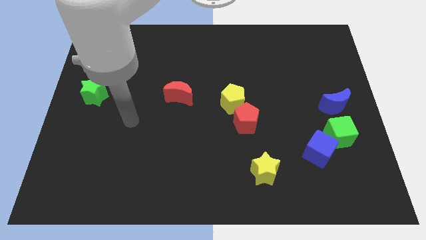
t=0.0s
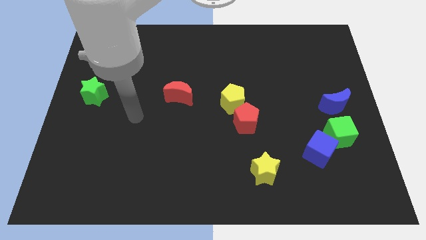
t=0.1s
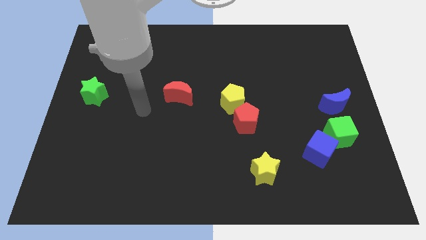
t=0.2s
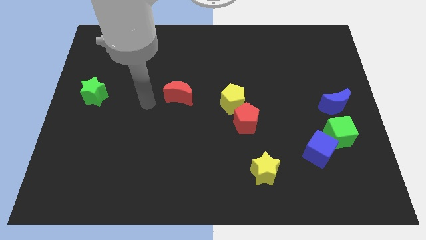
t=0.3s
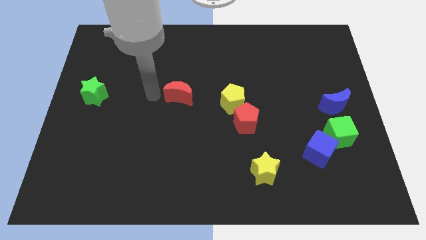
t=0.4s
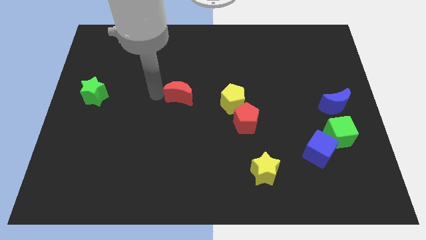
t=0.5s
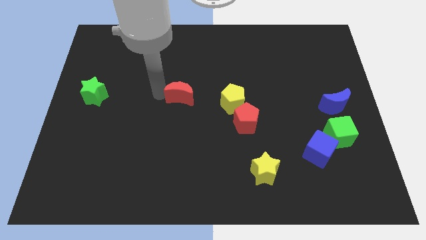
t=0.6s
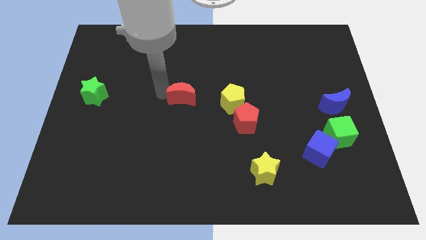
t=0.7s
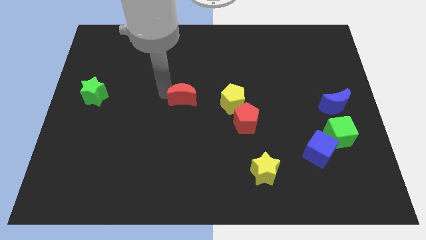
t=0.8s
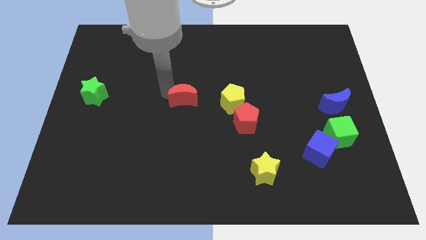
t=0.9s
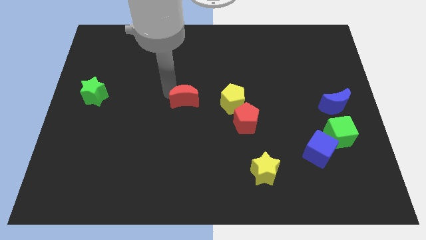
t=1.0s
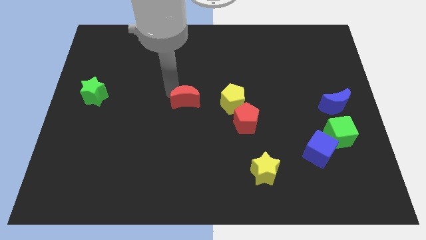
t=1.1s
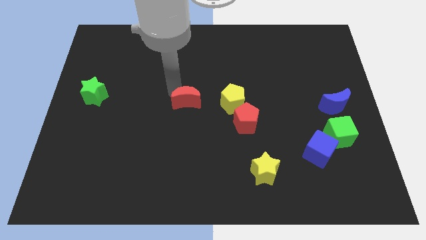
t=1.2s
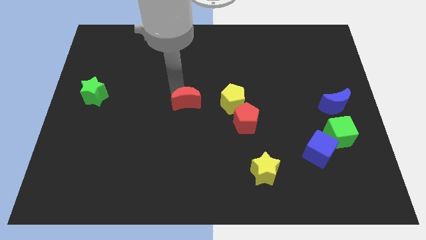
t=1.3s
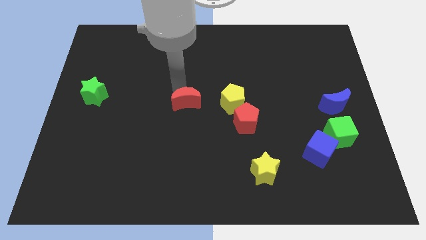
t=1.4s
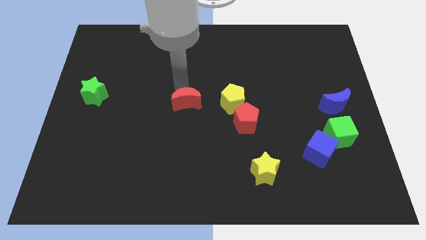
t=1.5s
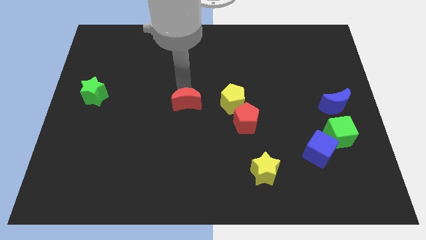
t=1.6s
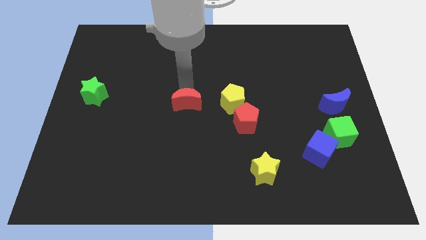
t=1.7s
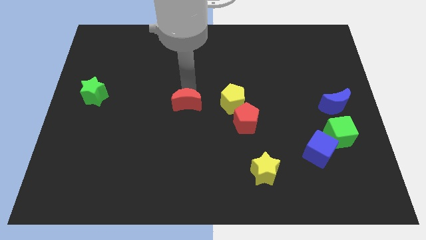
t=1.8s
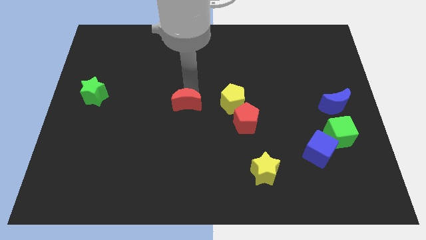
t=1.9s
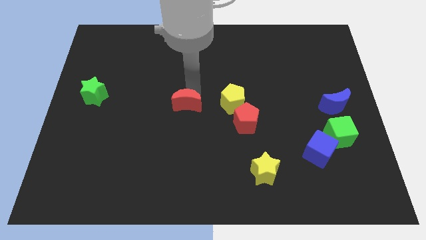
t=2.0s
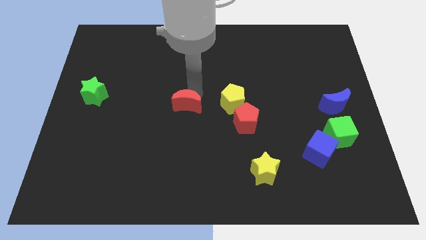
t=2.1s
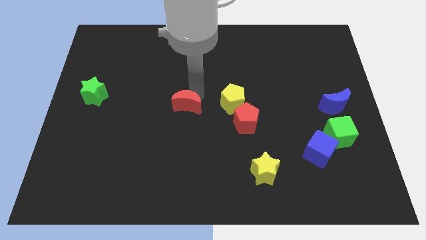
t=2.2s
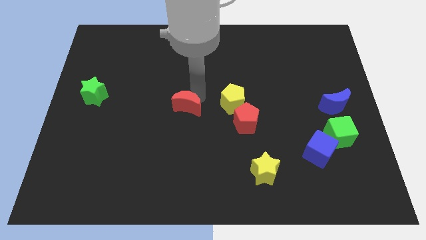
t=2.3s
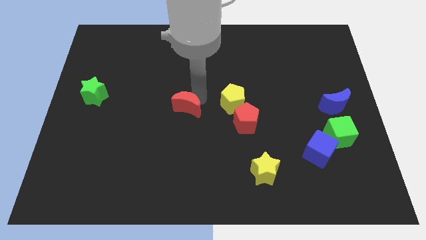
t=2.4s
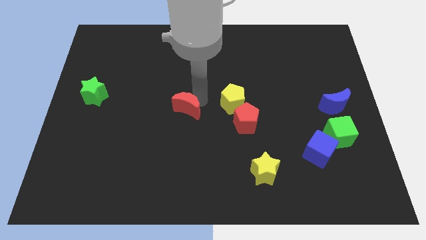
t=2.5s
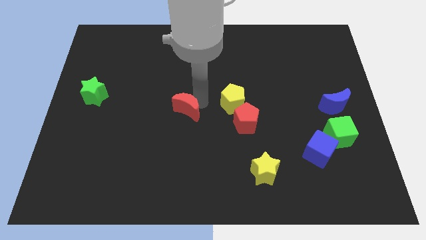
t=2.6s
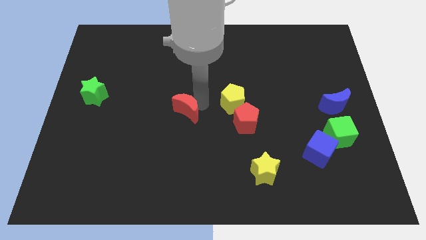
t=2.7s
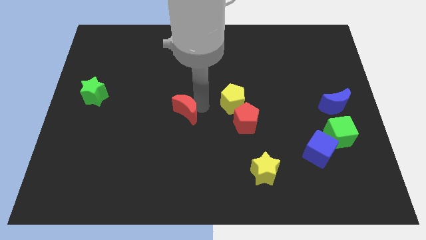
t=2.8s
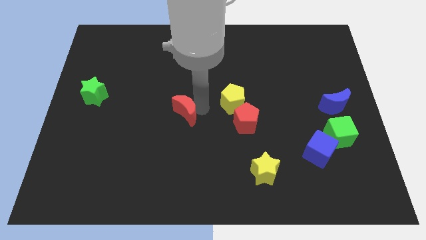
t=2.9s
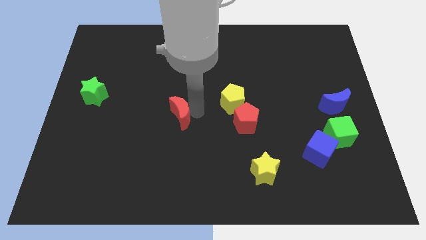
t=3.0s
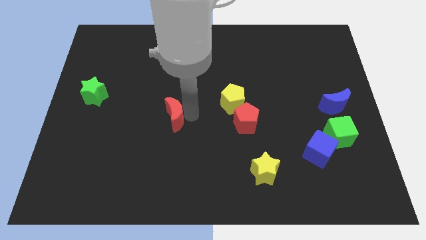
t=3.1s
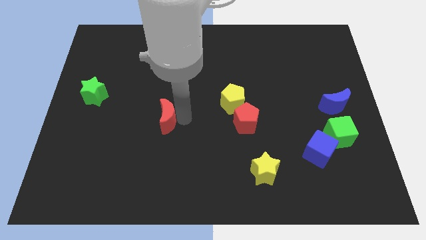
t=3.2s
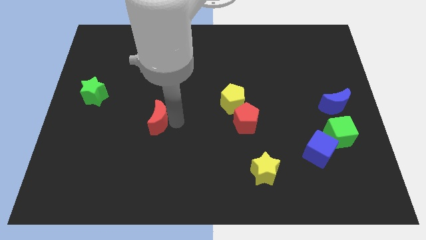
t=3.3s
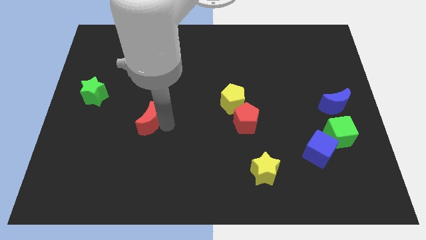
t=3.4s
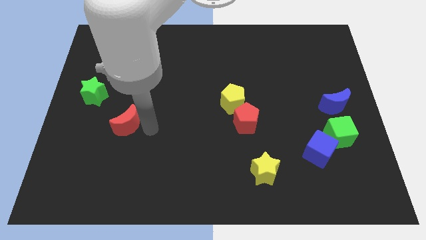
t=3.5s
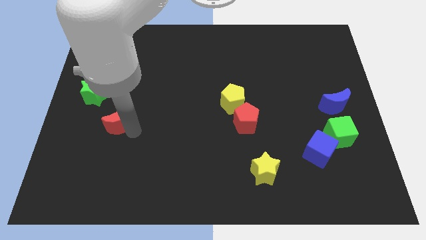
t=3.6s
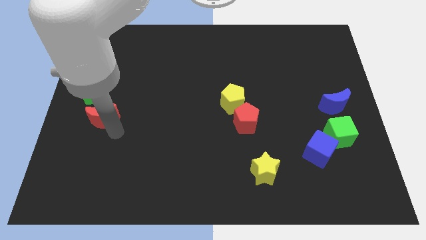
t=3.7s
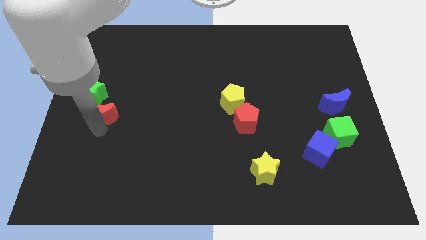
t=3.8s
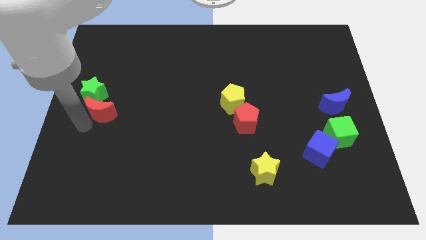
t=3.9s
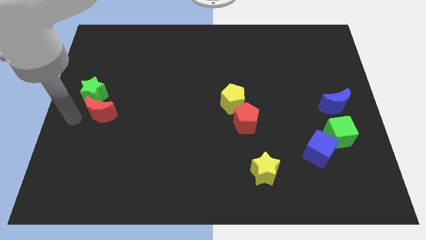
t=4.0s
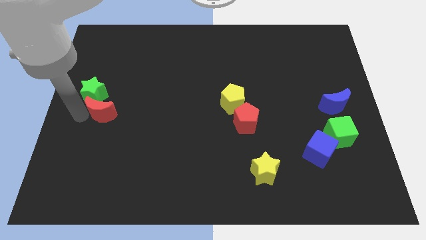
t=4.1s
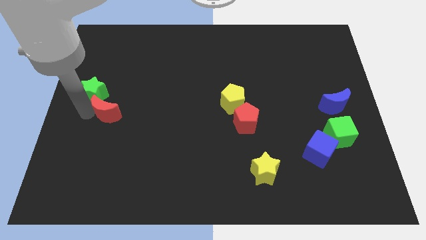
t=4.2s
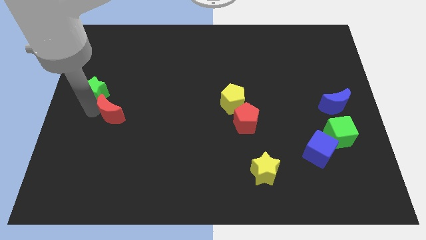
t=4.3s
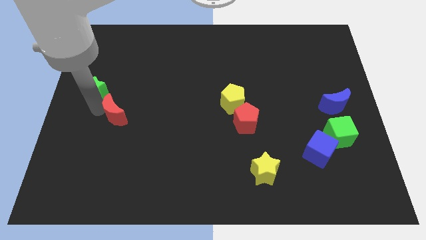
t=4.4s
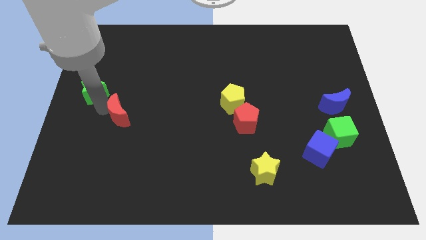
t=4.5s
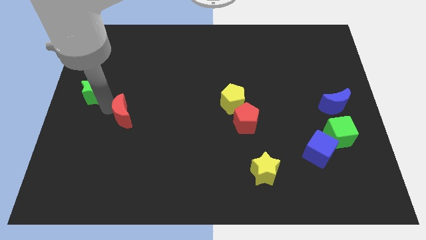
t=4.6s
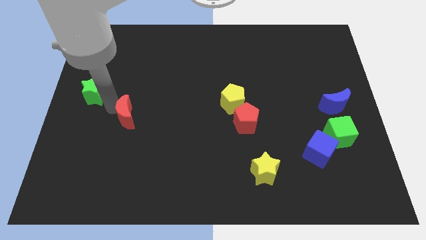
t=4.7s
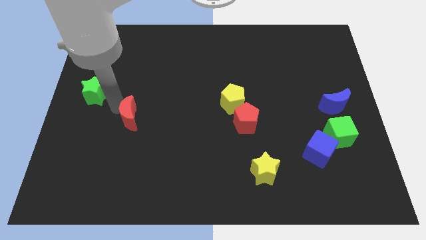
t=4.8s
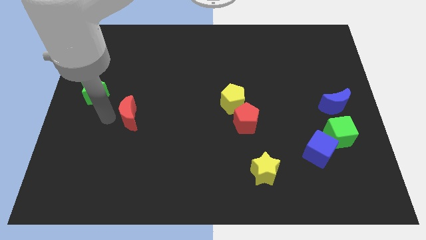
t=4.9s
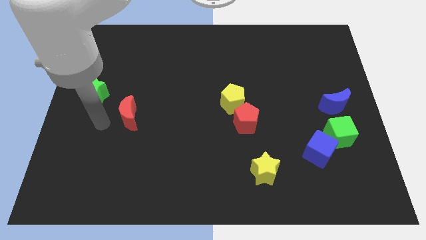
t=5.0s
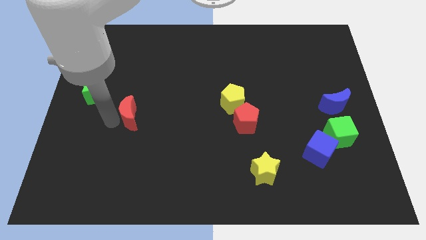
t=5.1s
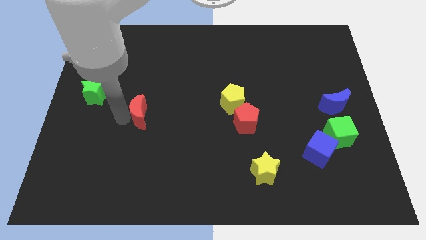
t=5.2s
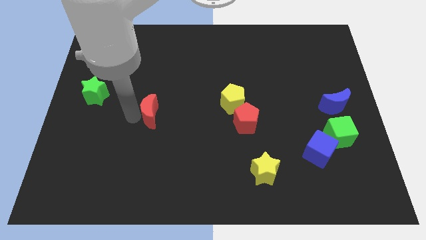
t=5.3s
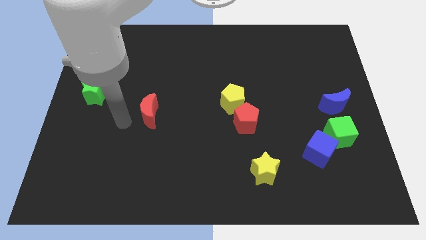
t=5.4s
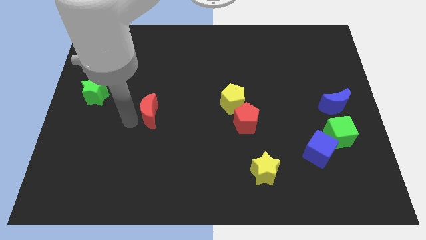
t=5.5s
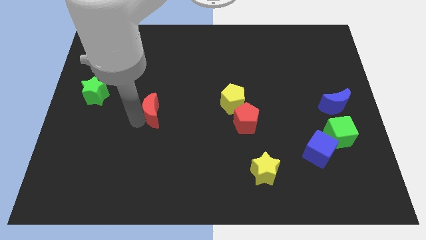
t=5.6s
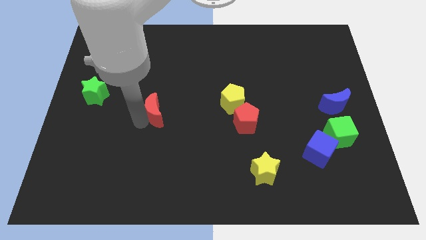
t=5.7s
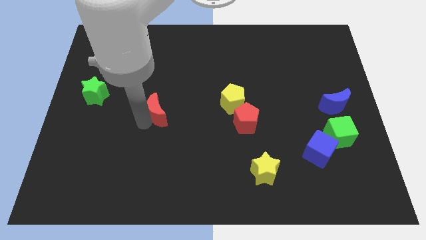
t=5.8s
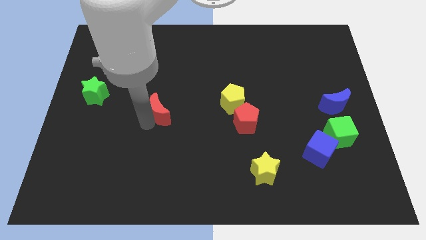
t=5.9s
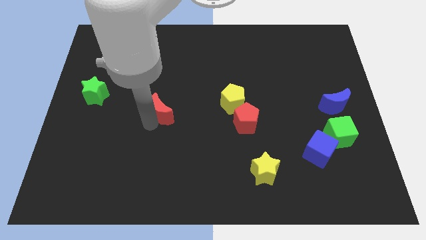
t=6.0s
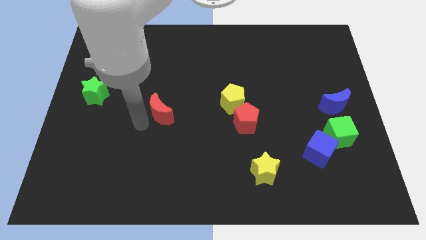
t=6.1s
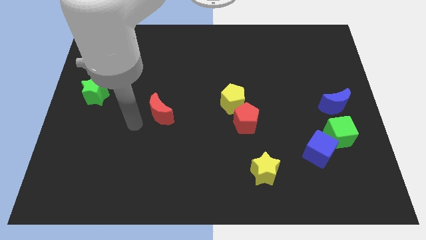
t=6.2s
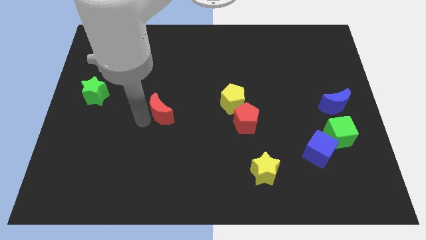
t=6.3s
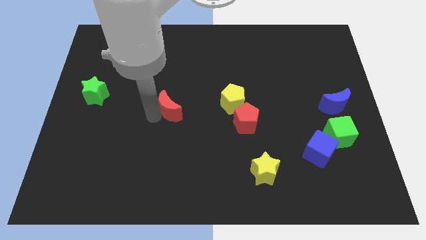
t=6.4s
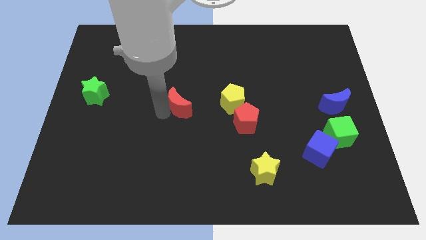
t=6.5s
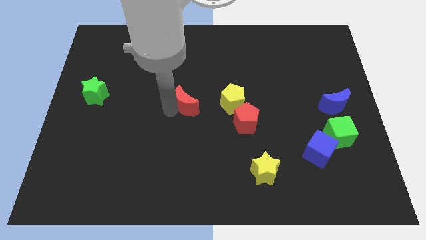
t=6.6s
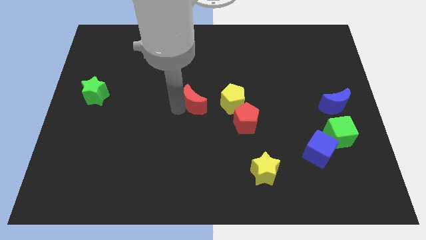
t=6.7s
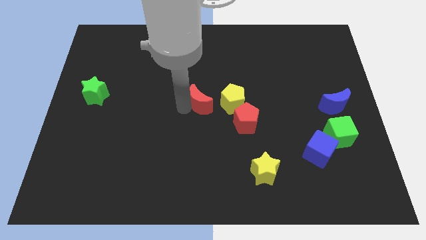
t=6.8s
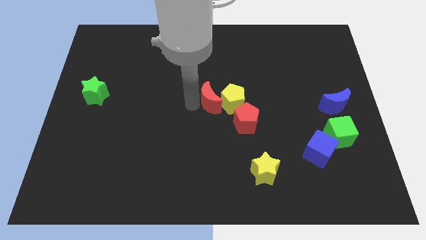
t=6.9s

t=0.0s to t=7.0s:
move the red moon close to the yellow pentagon
